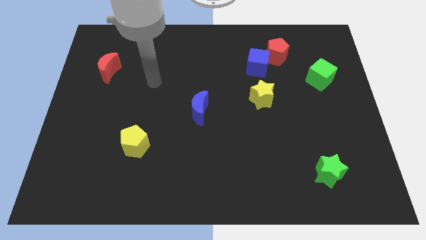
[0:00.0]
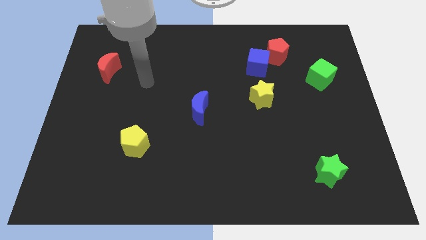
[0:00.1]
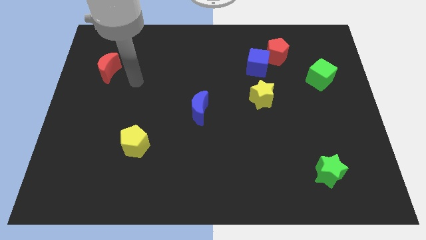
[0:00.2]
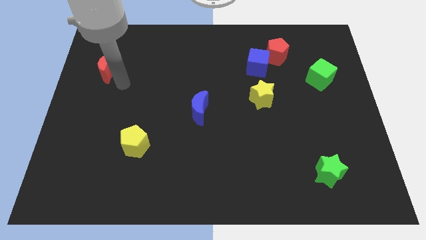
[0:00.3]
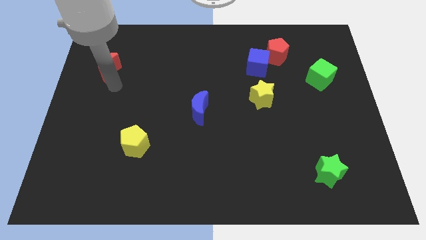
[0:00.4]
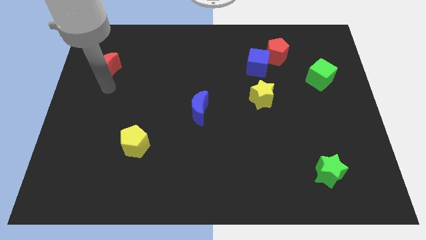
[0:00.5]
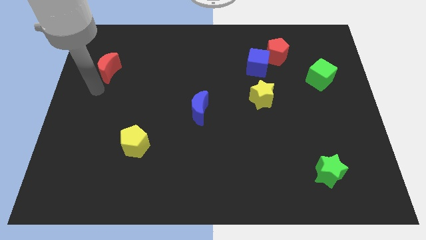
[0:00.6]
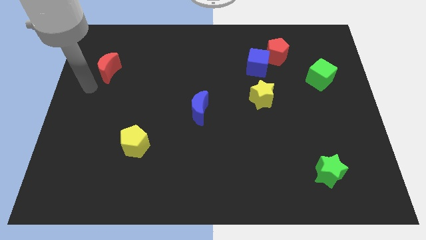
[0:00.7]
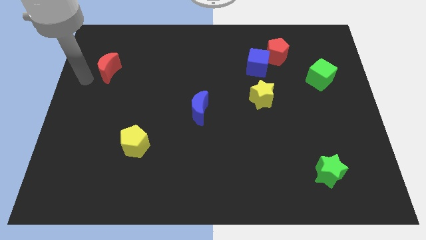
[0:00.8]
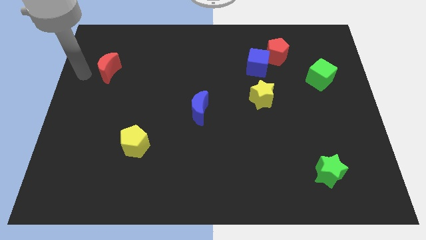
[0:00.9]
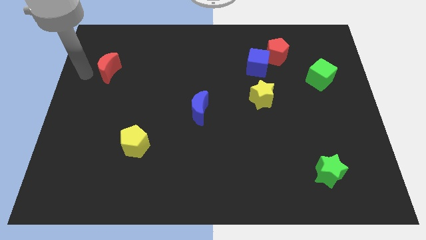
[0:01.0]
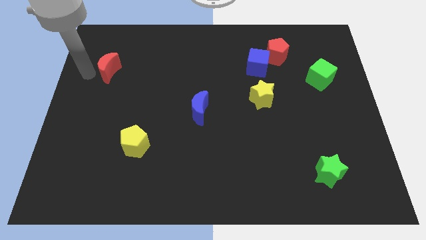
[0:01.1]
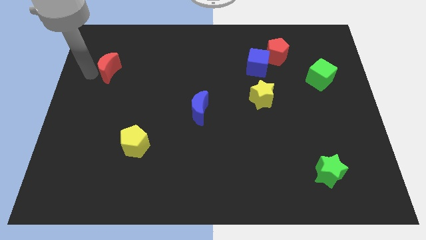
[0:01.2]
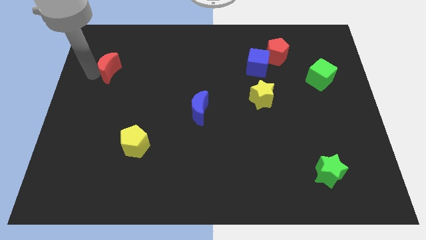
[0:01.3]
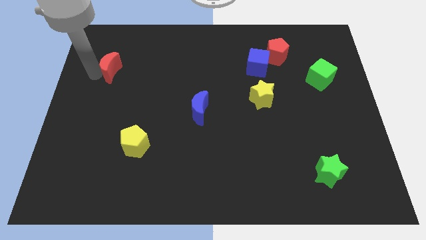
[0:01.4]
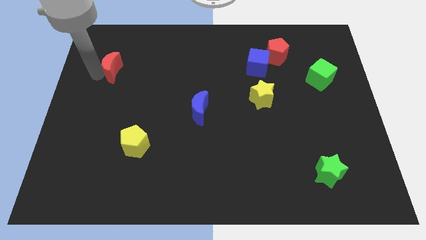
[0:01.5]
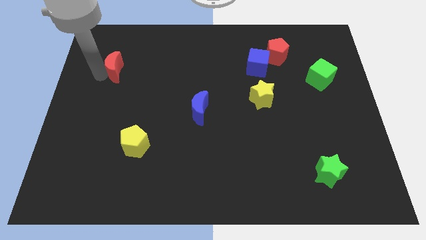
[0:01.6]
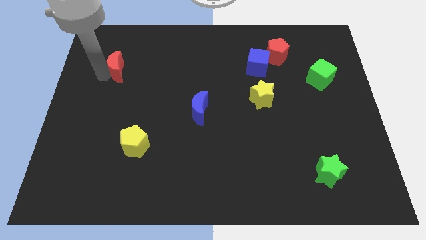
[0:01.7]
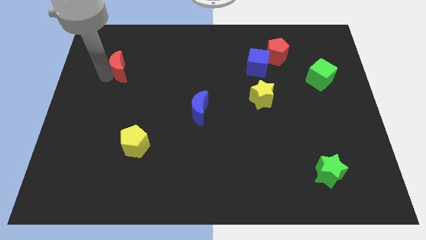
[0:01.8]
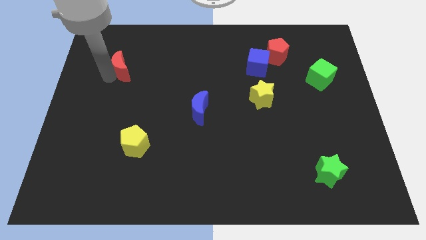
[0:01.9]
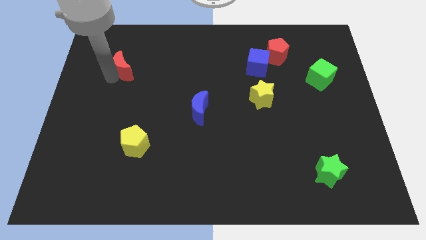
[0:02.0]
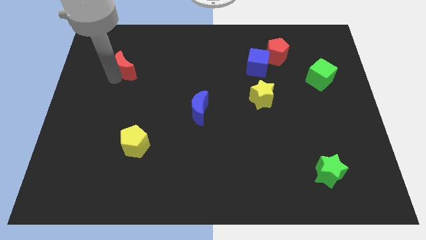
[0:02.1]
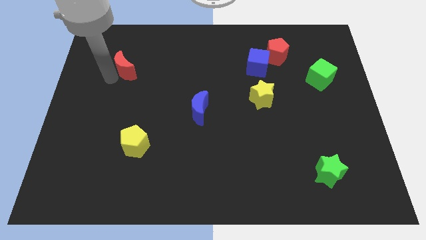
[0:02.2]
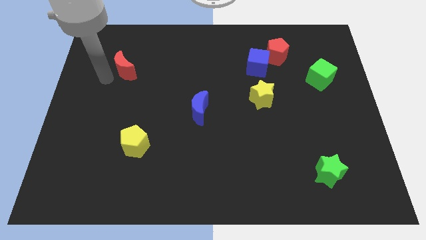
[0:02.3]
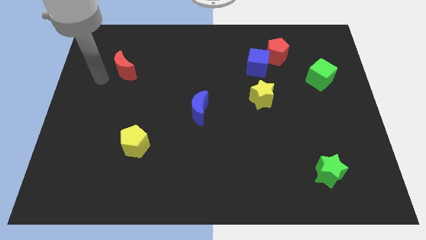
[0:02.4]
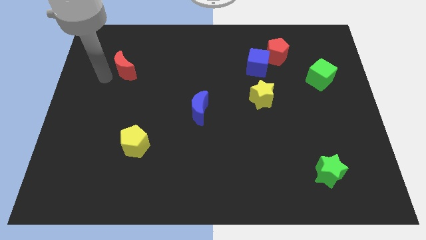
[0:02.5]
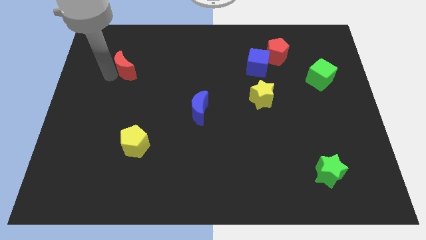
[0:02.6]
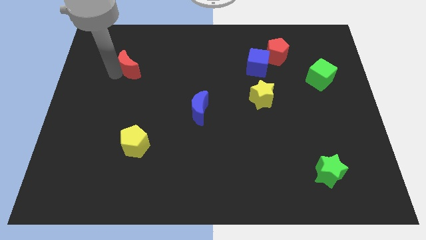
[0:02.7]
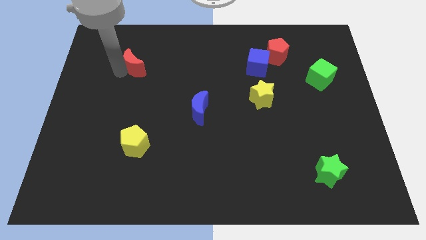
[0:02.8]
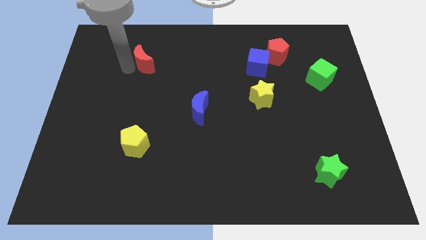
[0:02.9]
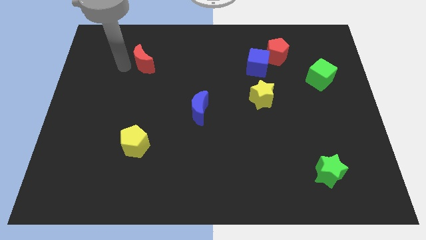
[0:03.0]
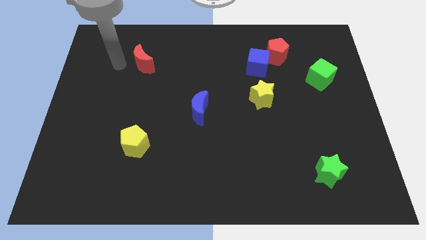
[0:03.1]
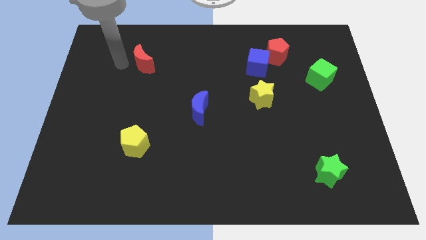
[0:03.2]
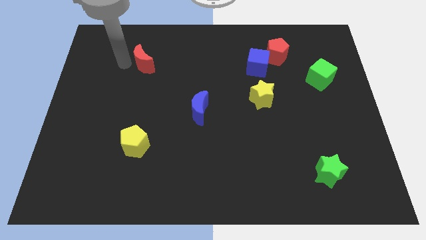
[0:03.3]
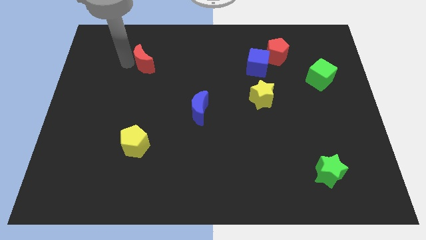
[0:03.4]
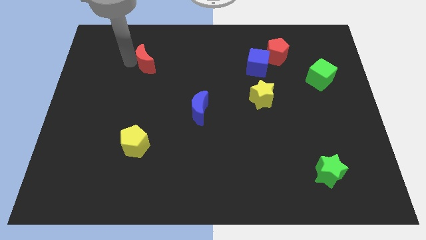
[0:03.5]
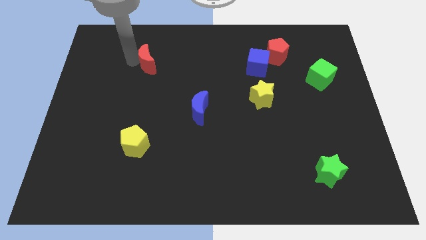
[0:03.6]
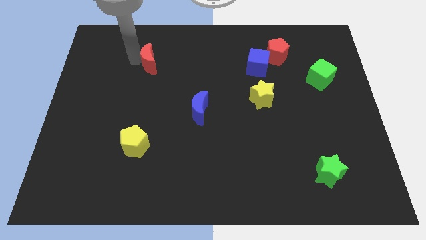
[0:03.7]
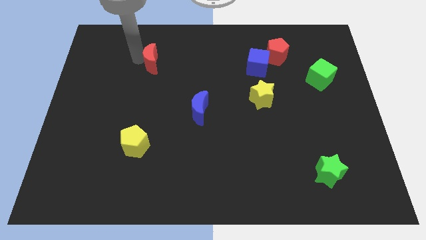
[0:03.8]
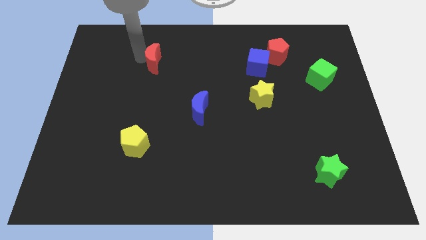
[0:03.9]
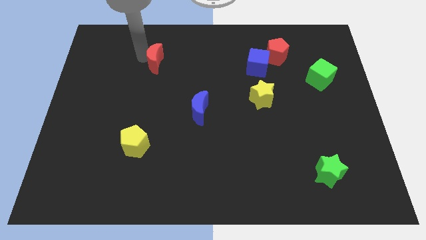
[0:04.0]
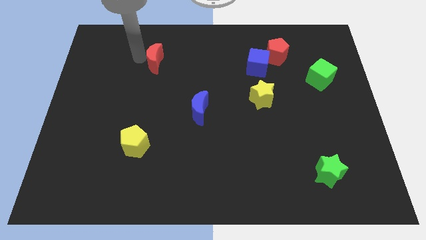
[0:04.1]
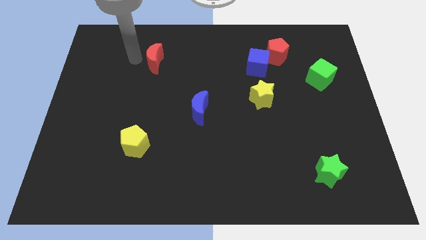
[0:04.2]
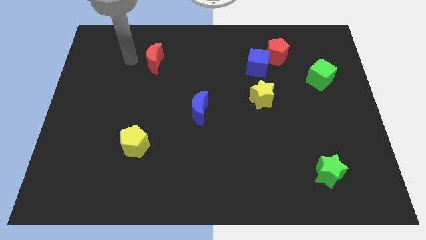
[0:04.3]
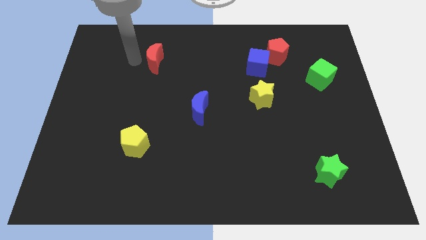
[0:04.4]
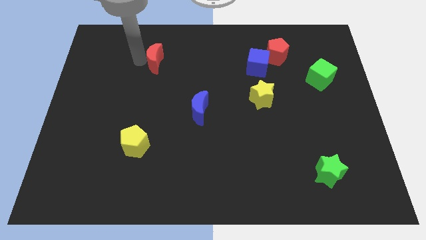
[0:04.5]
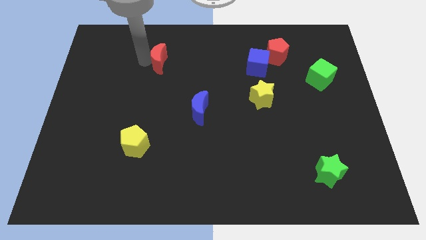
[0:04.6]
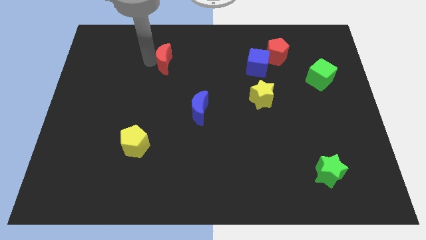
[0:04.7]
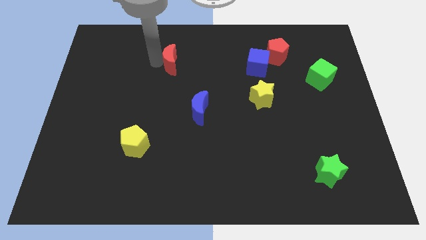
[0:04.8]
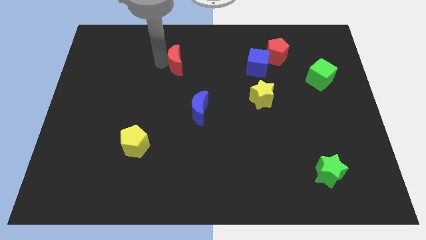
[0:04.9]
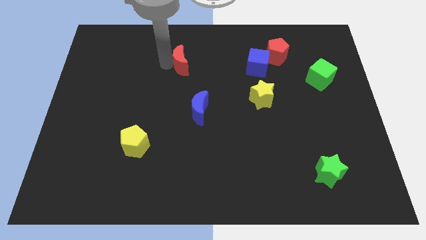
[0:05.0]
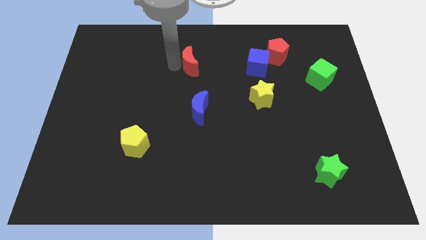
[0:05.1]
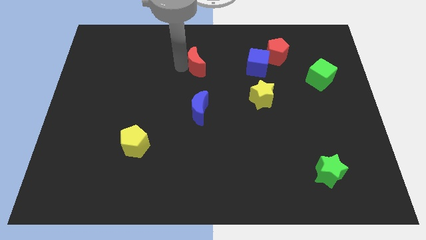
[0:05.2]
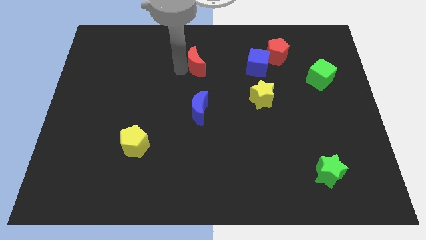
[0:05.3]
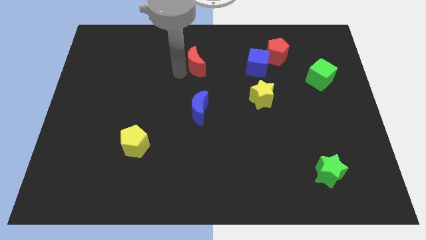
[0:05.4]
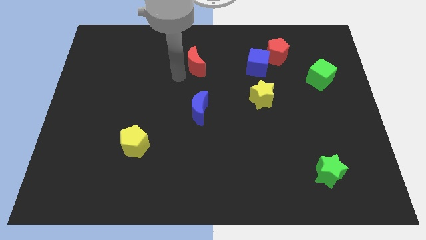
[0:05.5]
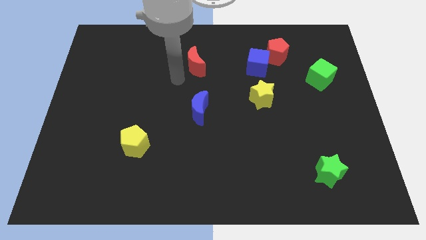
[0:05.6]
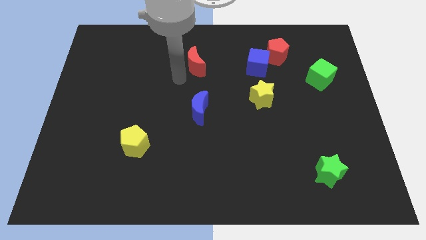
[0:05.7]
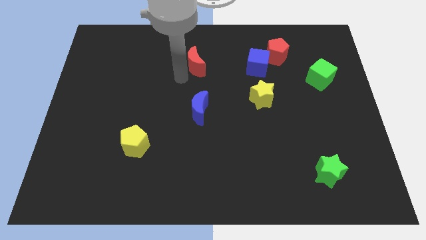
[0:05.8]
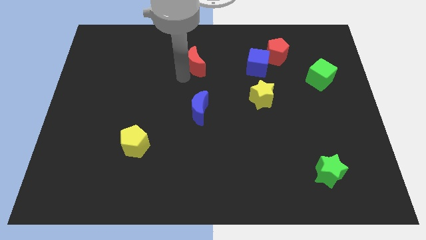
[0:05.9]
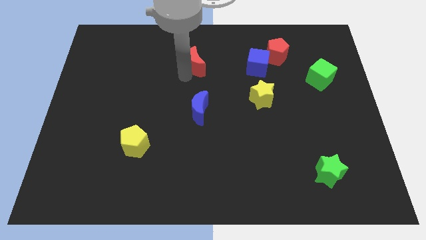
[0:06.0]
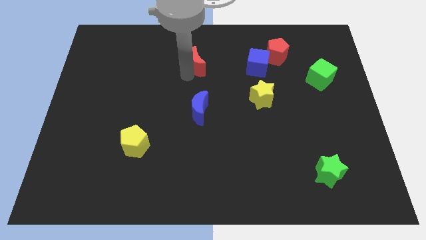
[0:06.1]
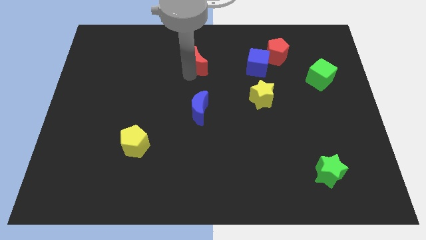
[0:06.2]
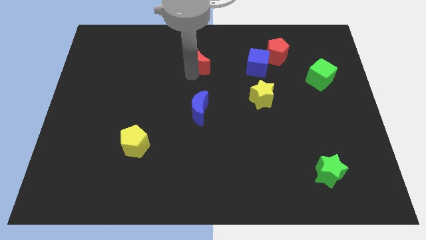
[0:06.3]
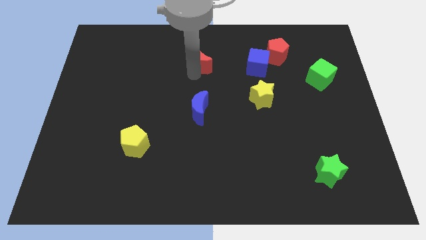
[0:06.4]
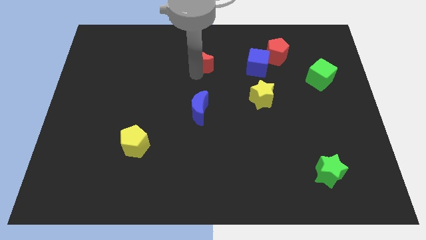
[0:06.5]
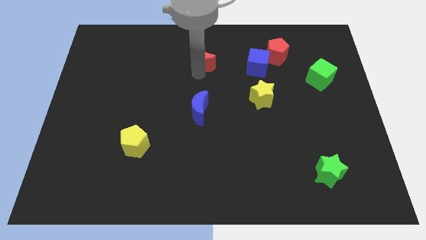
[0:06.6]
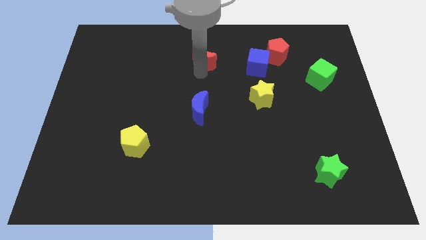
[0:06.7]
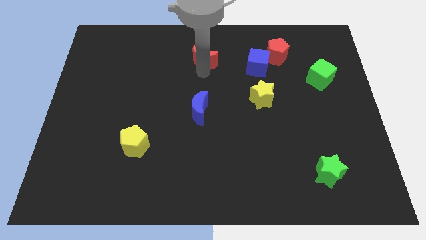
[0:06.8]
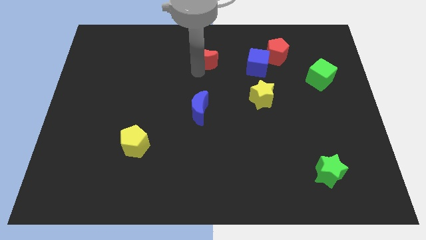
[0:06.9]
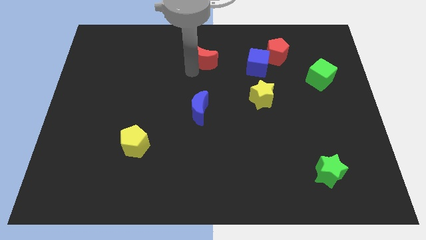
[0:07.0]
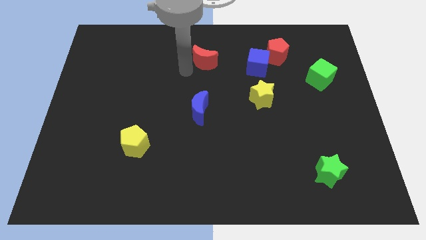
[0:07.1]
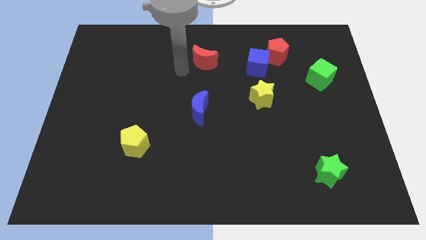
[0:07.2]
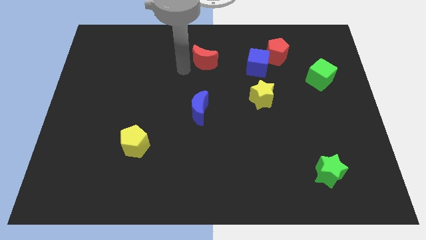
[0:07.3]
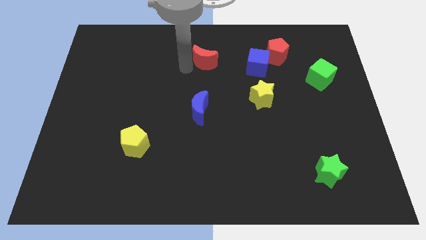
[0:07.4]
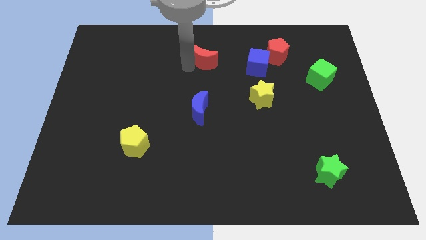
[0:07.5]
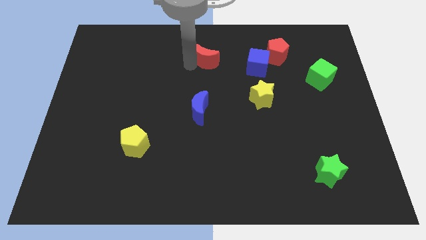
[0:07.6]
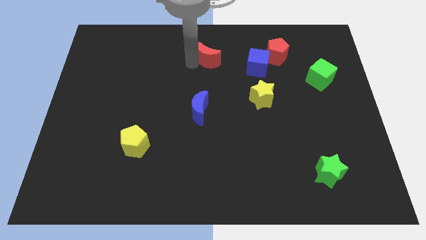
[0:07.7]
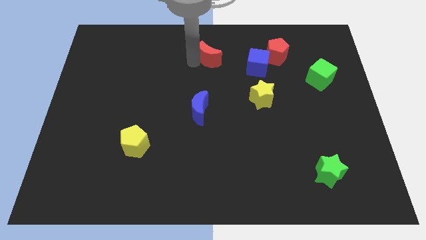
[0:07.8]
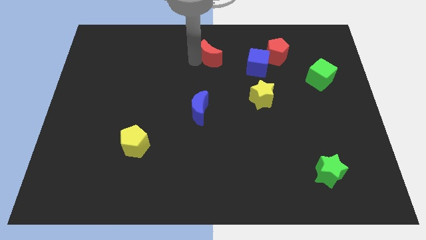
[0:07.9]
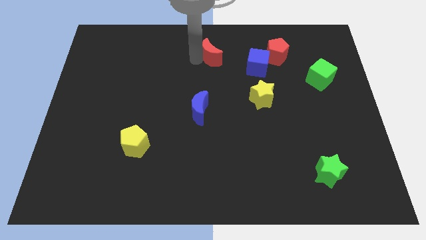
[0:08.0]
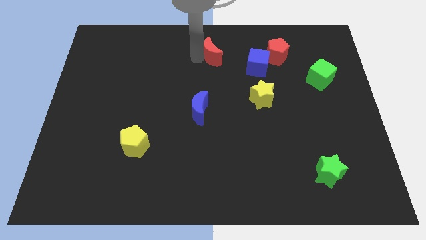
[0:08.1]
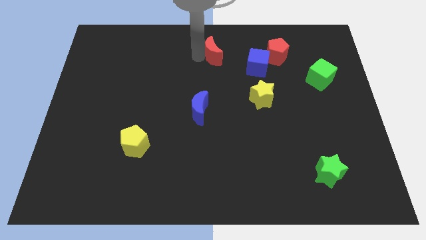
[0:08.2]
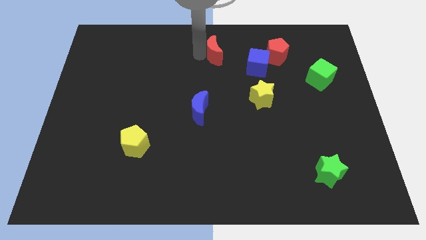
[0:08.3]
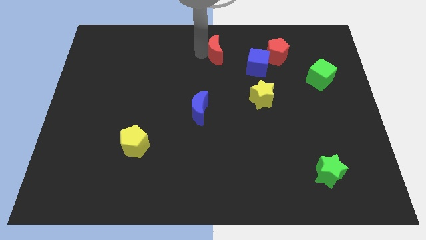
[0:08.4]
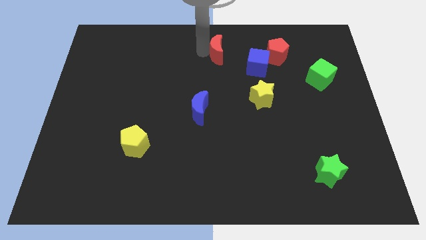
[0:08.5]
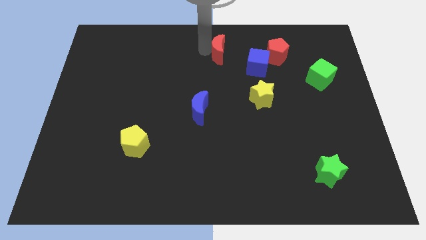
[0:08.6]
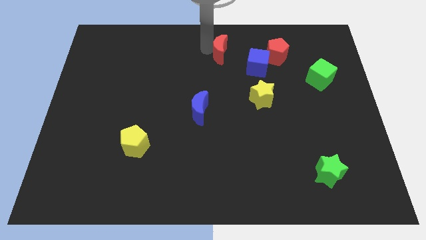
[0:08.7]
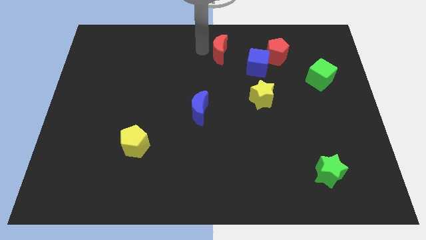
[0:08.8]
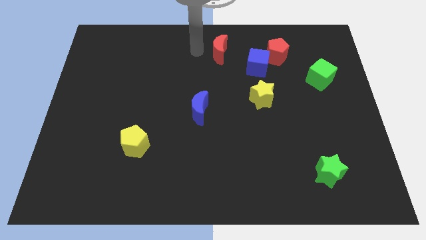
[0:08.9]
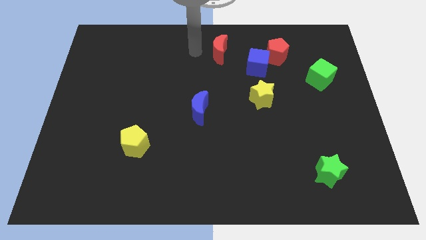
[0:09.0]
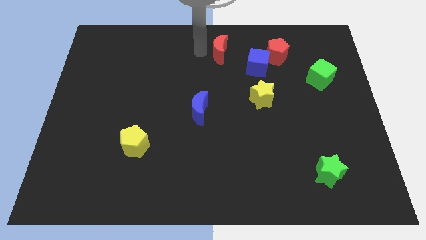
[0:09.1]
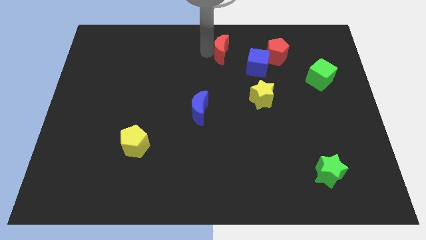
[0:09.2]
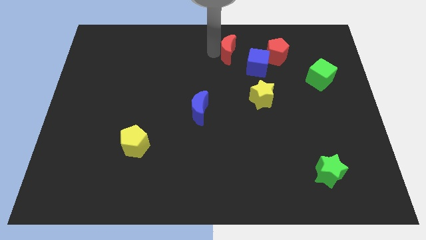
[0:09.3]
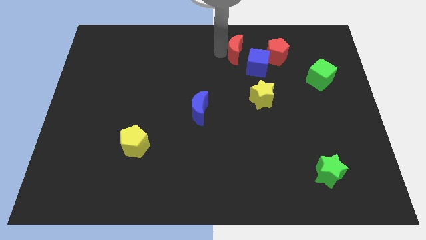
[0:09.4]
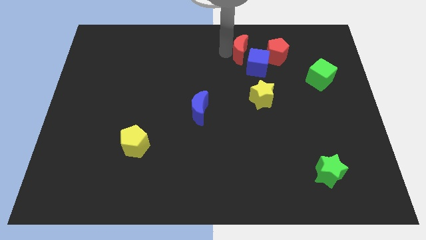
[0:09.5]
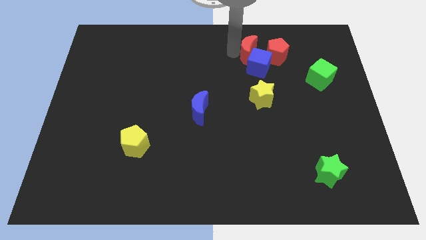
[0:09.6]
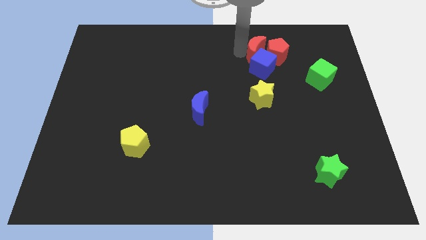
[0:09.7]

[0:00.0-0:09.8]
put the red moon next to the red pentagon
